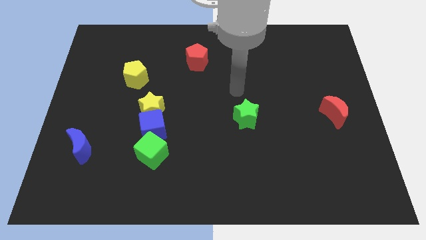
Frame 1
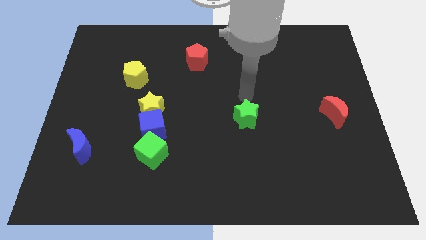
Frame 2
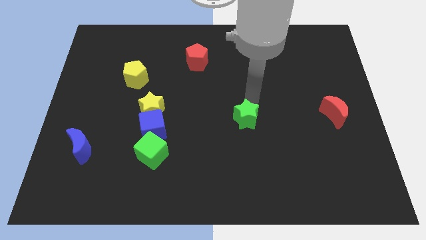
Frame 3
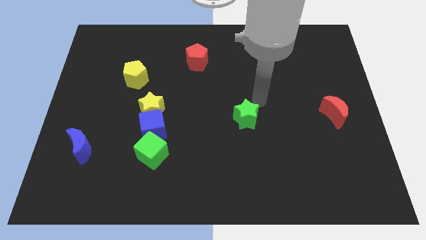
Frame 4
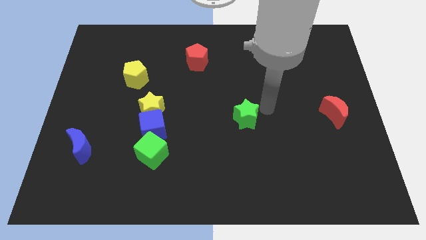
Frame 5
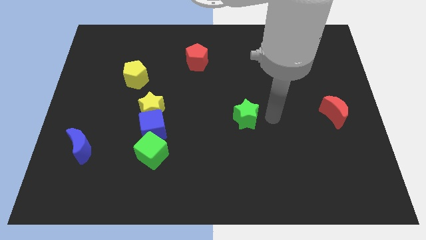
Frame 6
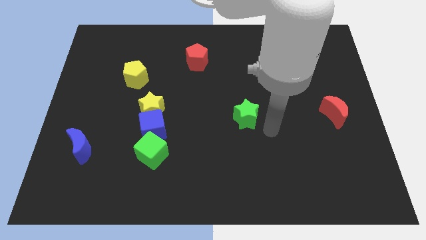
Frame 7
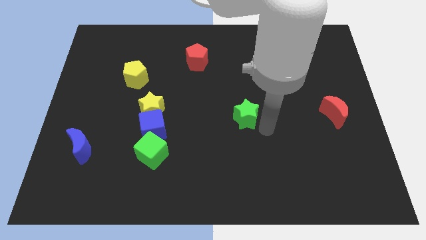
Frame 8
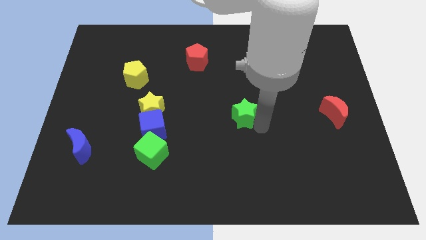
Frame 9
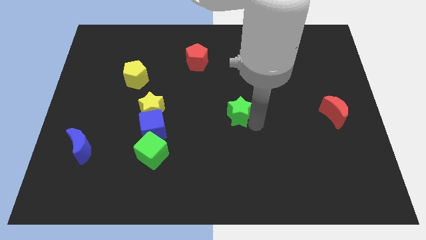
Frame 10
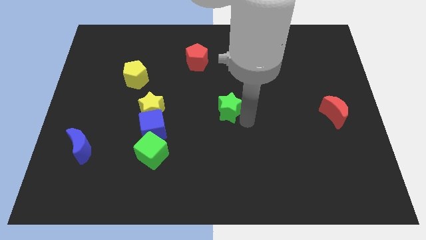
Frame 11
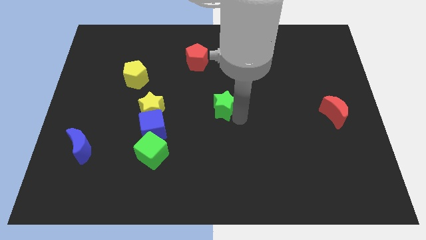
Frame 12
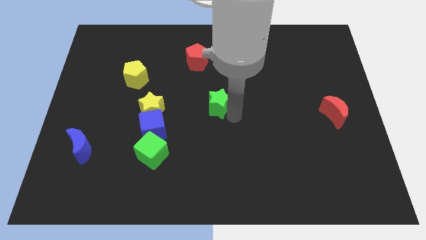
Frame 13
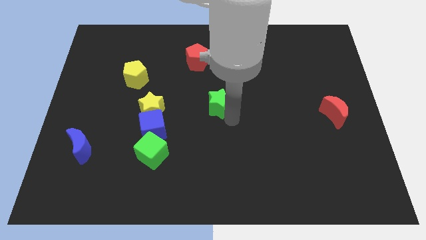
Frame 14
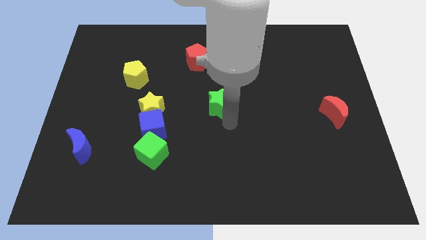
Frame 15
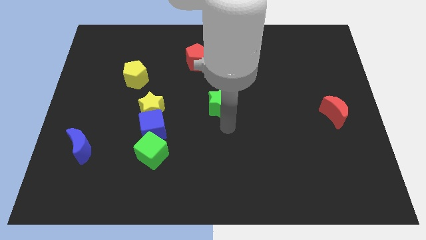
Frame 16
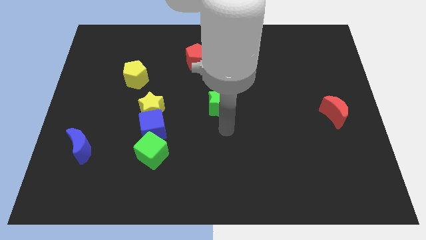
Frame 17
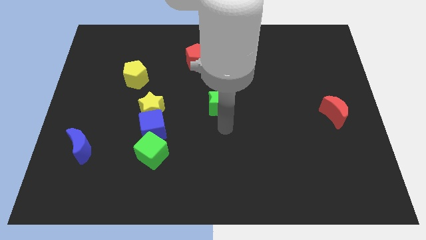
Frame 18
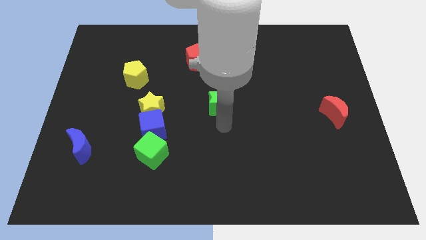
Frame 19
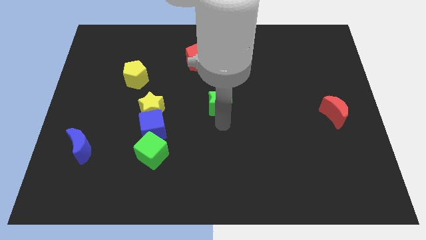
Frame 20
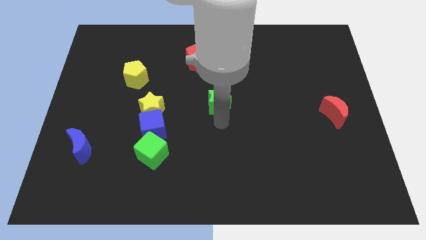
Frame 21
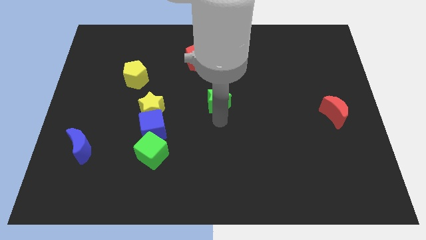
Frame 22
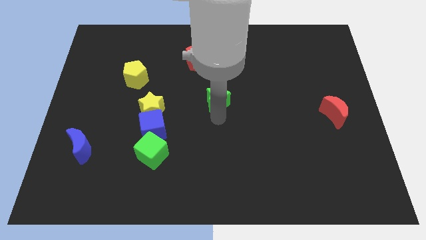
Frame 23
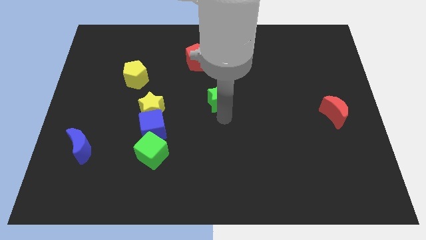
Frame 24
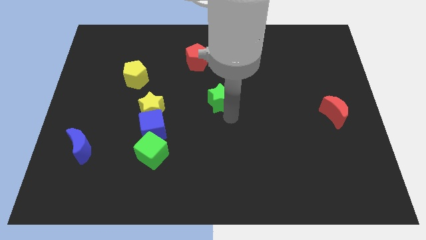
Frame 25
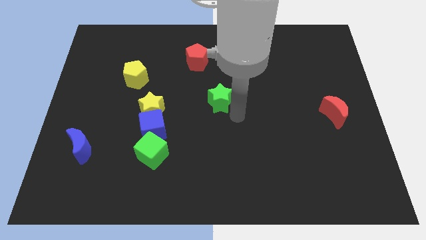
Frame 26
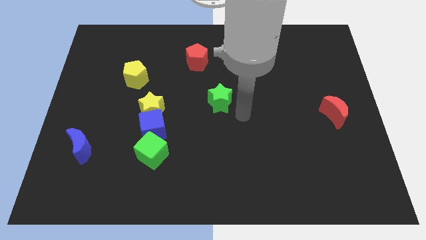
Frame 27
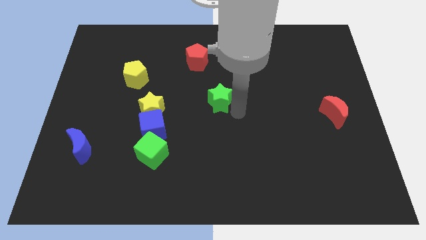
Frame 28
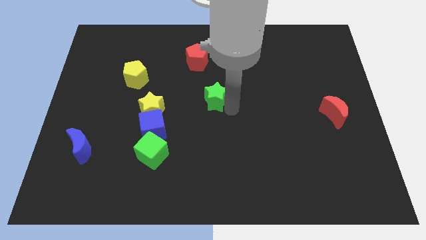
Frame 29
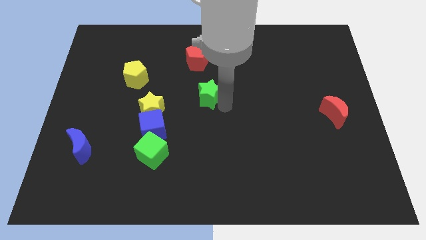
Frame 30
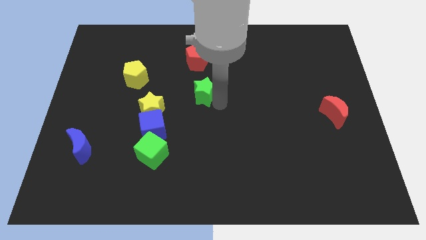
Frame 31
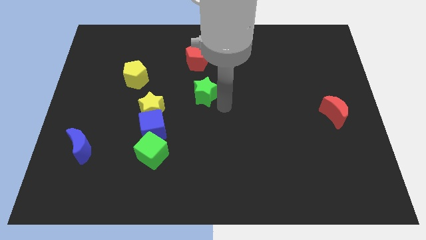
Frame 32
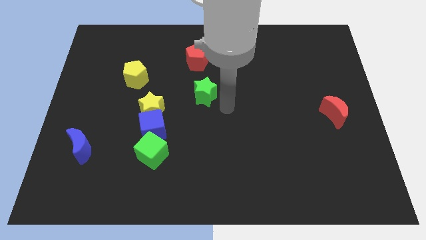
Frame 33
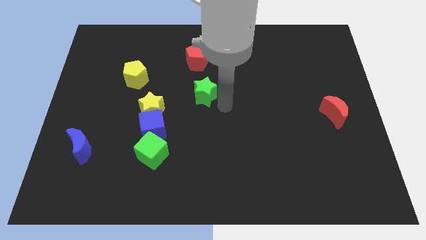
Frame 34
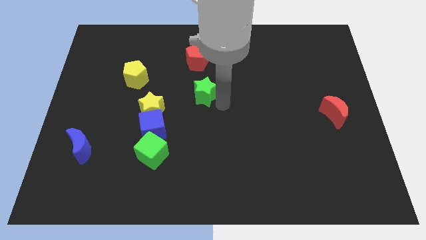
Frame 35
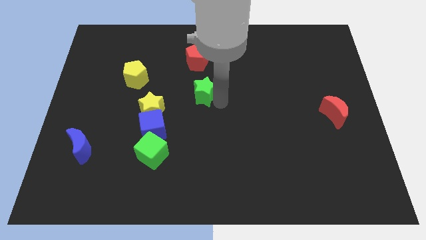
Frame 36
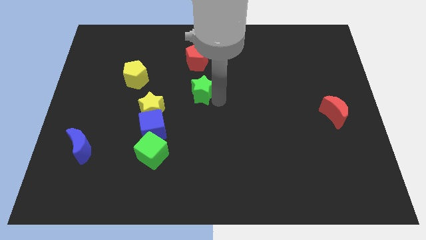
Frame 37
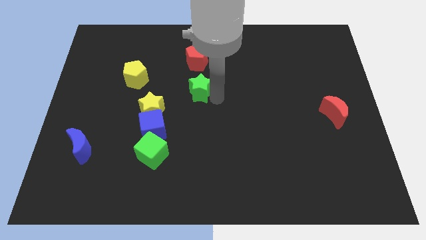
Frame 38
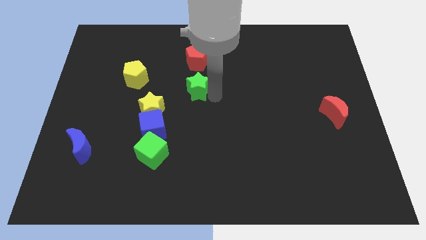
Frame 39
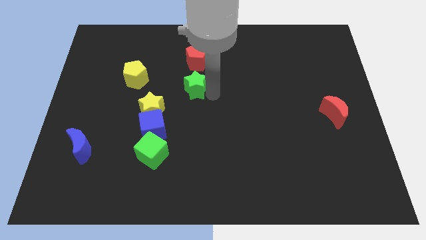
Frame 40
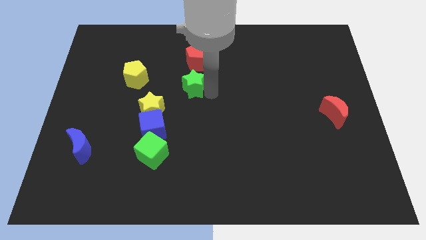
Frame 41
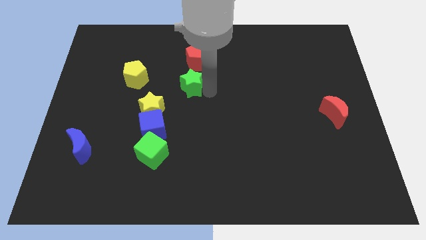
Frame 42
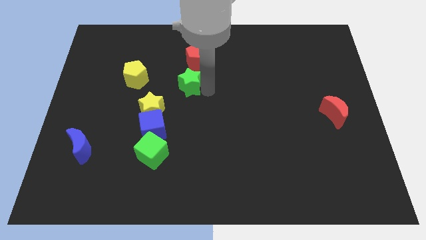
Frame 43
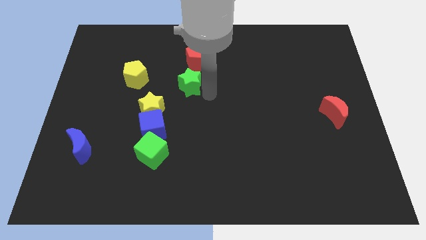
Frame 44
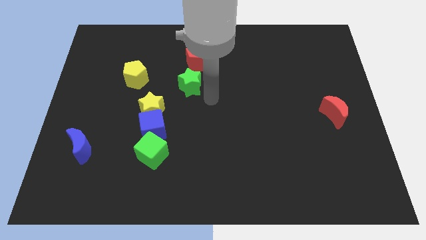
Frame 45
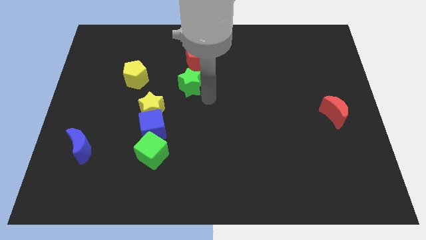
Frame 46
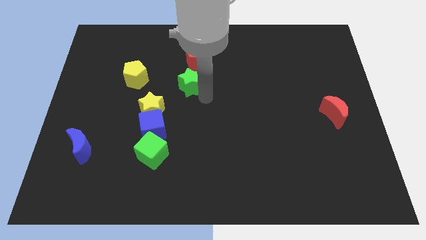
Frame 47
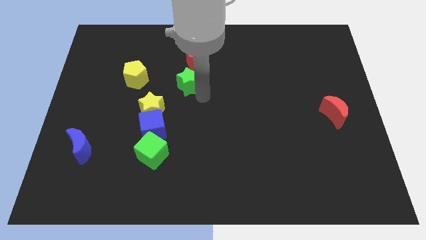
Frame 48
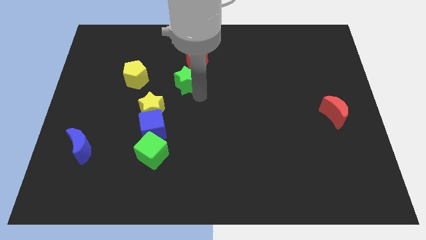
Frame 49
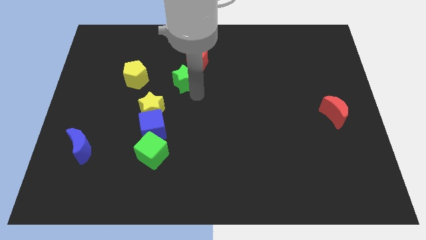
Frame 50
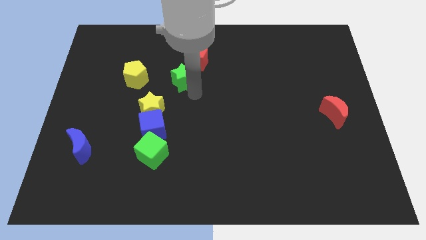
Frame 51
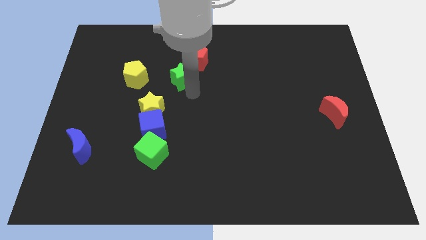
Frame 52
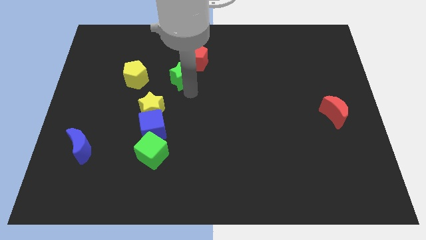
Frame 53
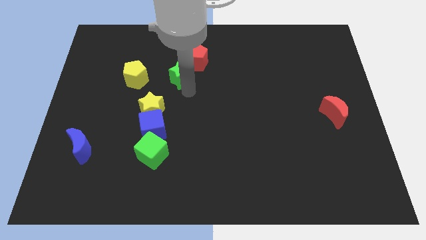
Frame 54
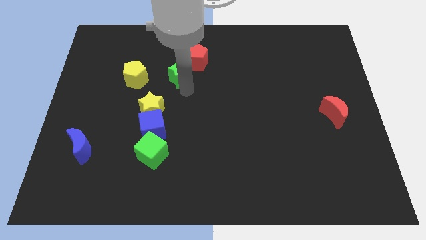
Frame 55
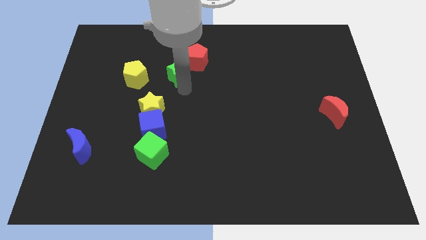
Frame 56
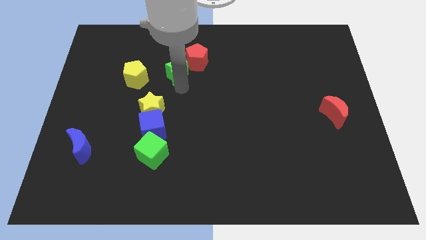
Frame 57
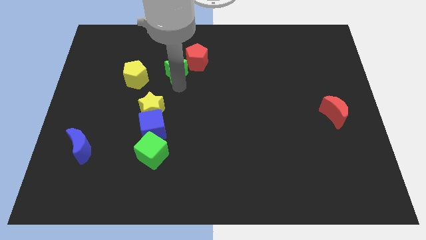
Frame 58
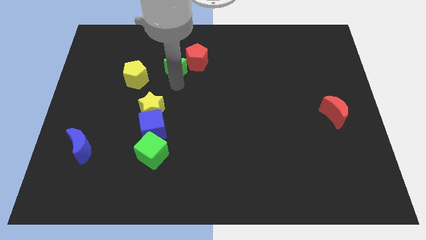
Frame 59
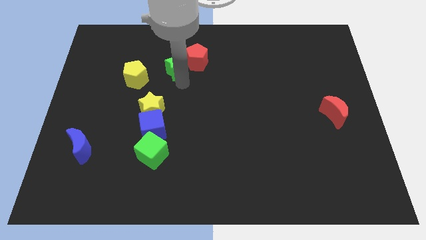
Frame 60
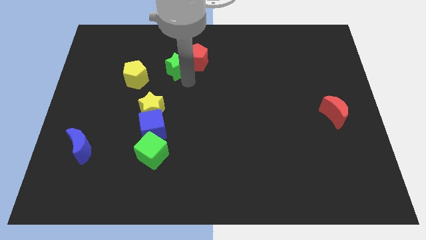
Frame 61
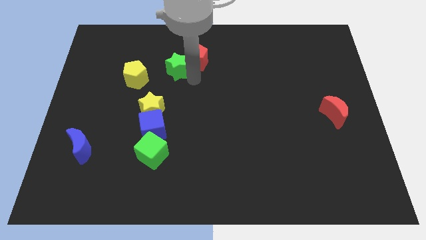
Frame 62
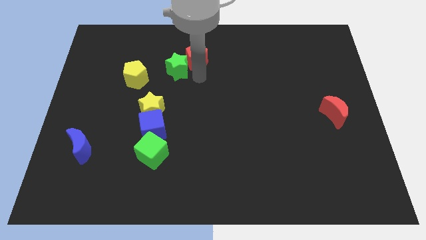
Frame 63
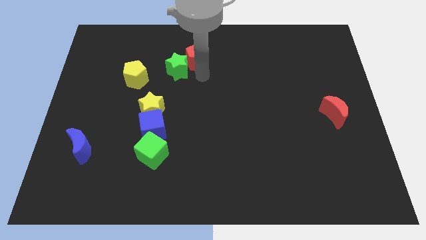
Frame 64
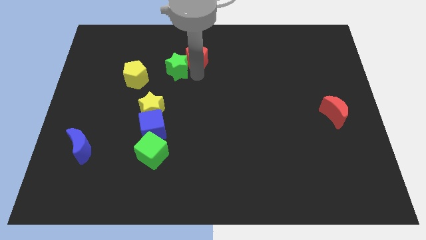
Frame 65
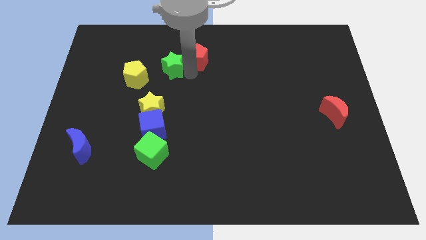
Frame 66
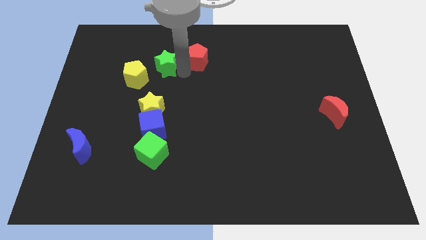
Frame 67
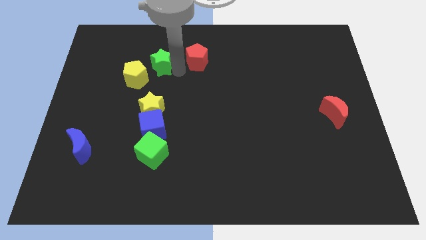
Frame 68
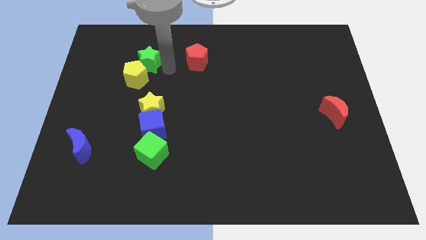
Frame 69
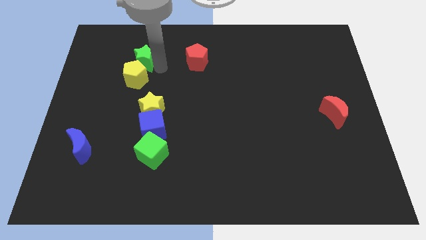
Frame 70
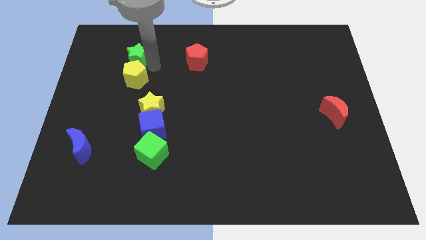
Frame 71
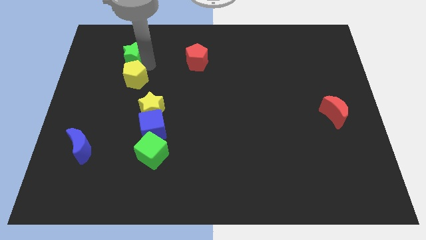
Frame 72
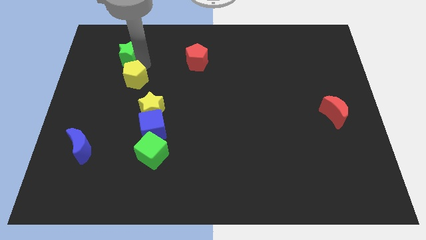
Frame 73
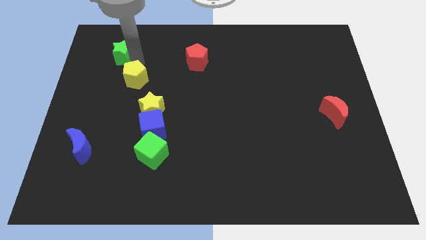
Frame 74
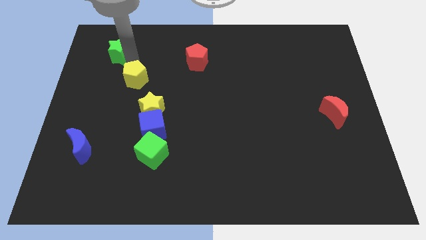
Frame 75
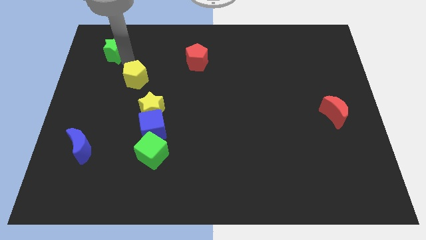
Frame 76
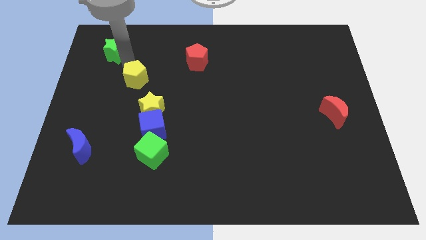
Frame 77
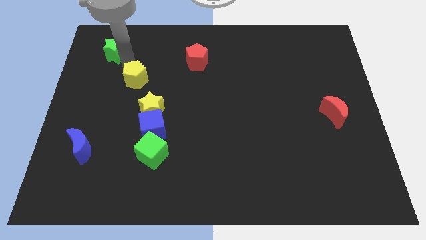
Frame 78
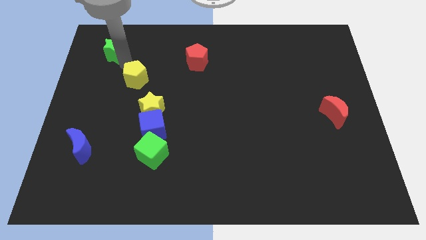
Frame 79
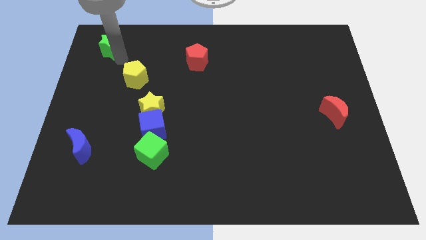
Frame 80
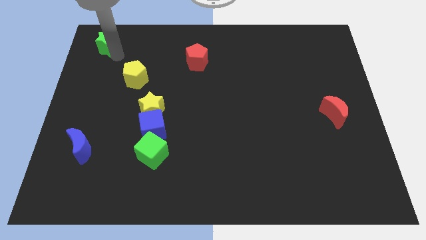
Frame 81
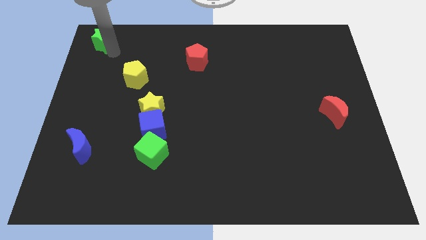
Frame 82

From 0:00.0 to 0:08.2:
push the green star to the top left corner
